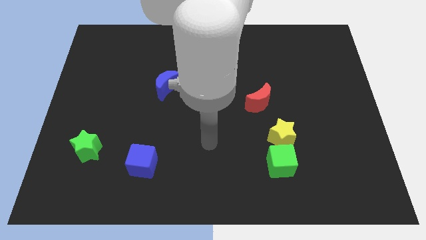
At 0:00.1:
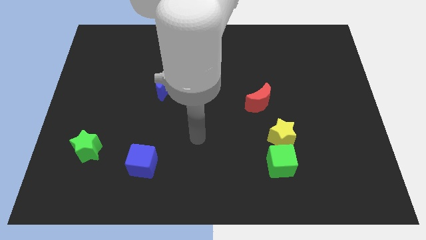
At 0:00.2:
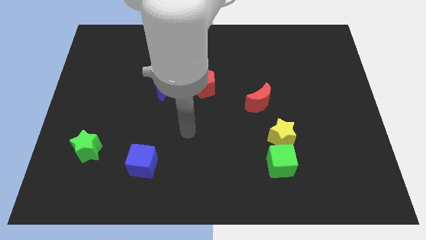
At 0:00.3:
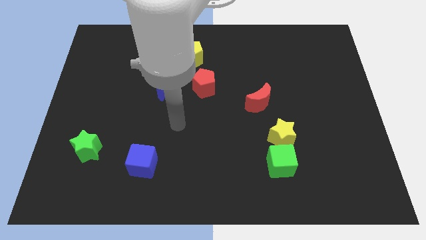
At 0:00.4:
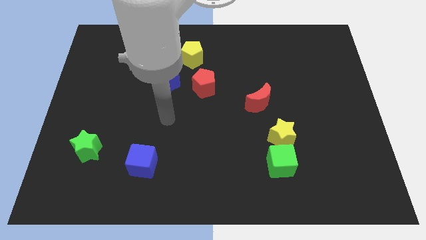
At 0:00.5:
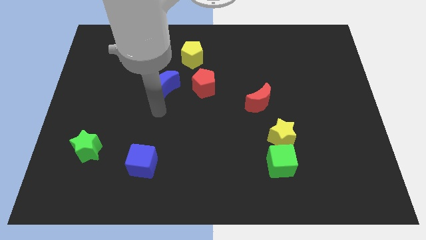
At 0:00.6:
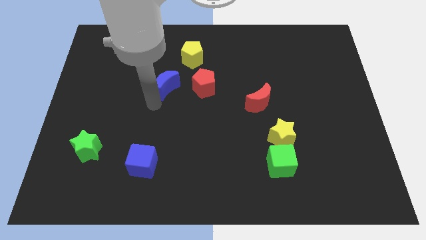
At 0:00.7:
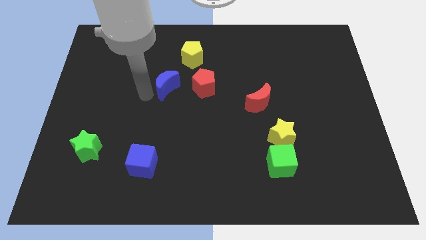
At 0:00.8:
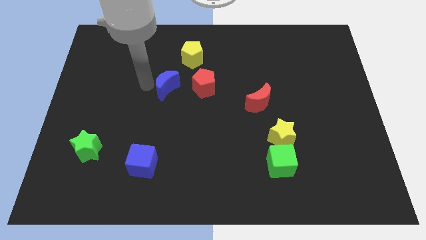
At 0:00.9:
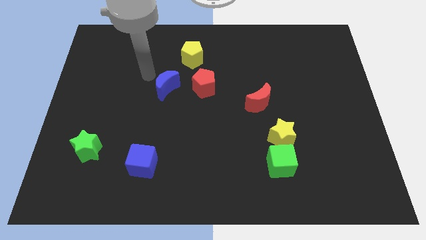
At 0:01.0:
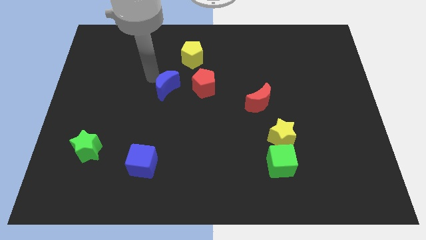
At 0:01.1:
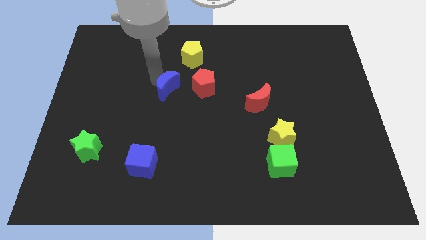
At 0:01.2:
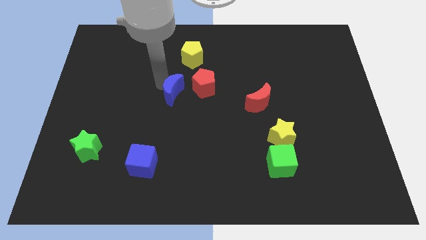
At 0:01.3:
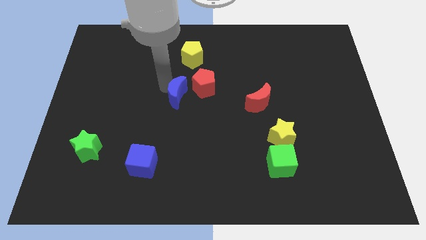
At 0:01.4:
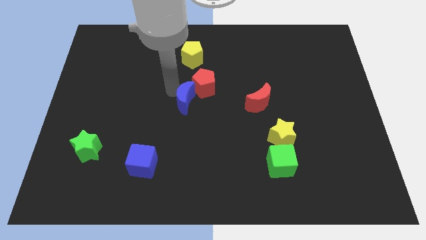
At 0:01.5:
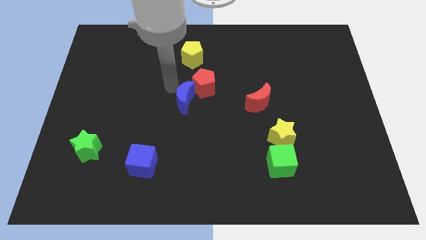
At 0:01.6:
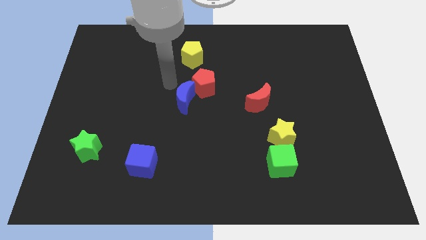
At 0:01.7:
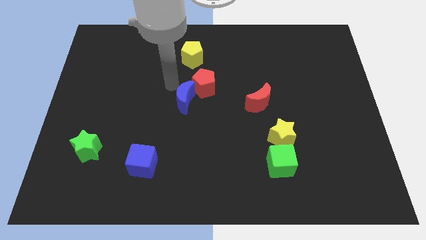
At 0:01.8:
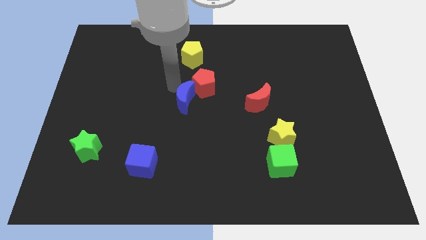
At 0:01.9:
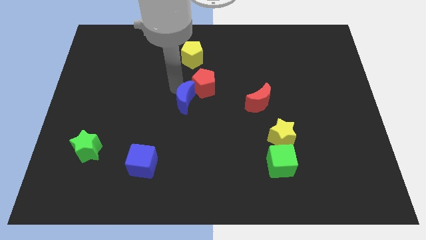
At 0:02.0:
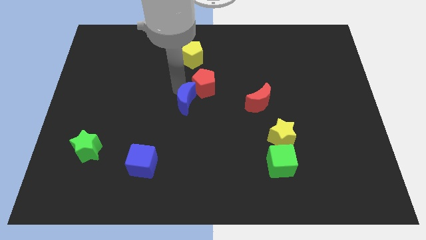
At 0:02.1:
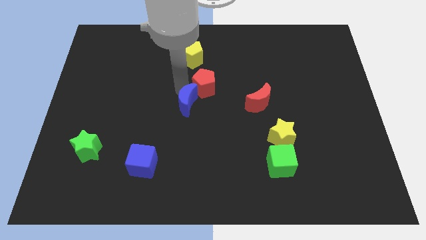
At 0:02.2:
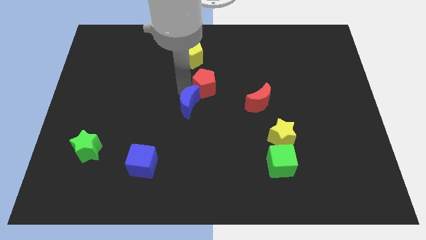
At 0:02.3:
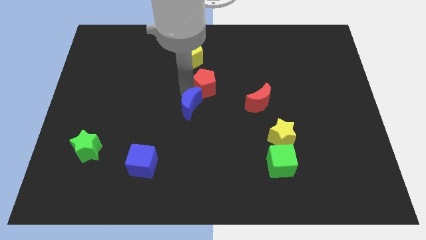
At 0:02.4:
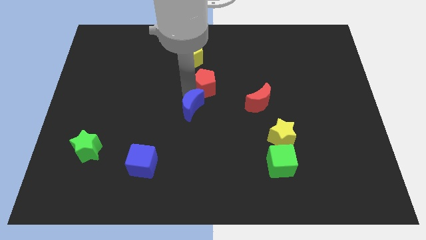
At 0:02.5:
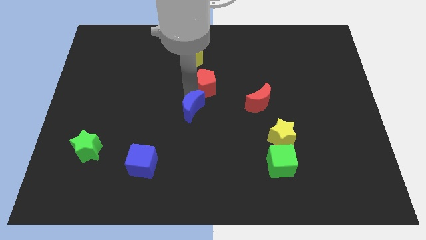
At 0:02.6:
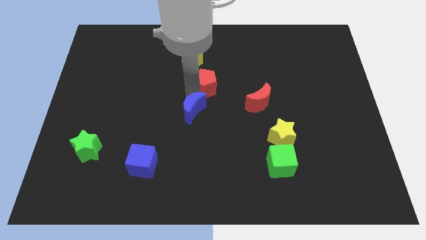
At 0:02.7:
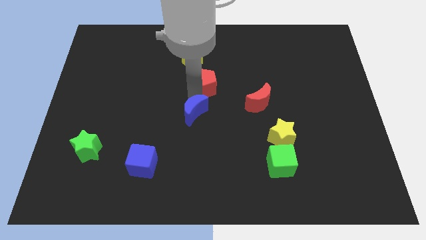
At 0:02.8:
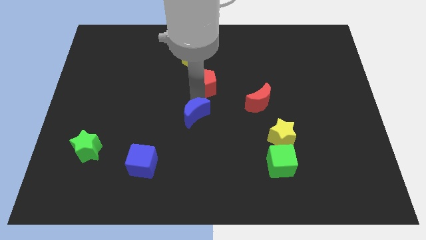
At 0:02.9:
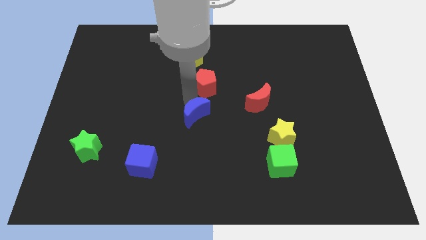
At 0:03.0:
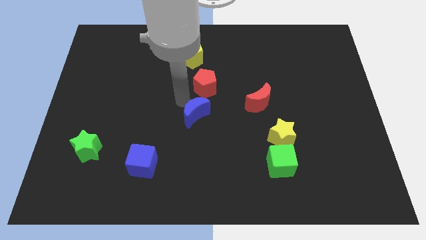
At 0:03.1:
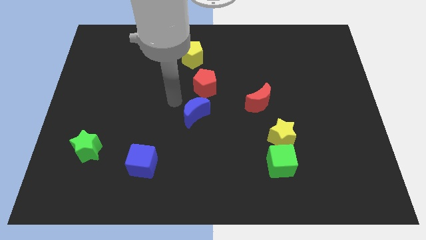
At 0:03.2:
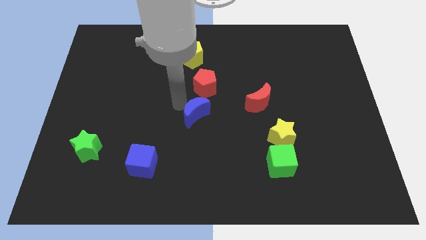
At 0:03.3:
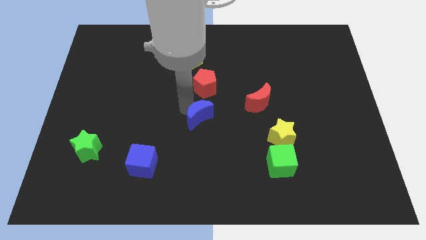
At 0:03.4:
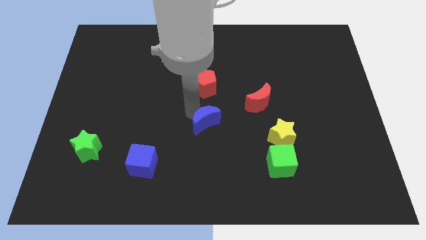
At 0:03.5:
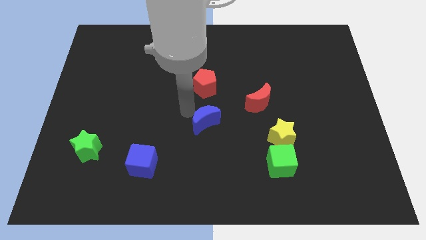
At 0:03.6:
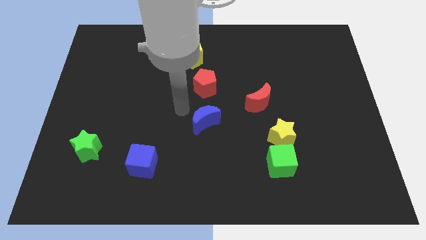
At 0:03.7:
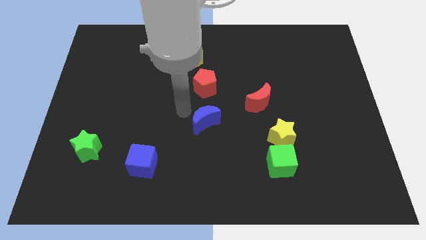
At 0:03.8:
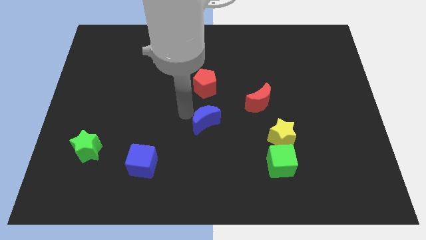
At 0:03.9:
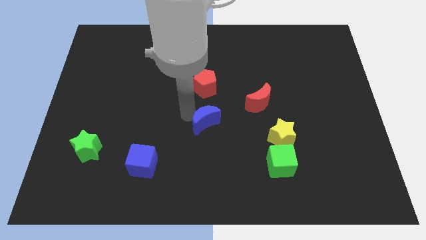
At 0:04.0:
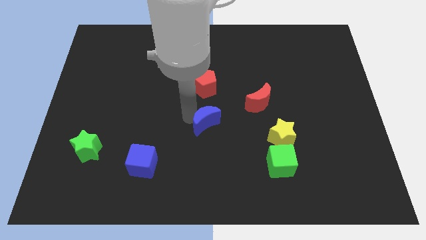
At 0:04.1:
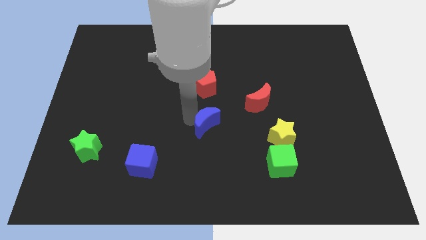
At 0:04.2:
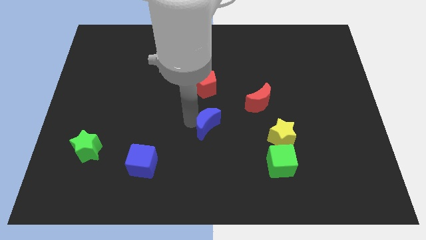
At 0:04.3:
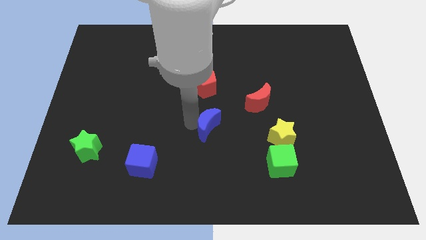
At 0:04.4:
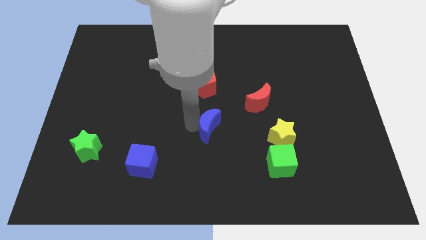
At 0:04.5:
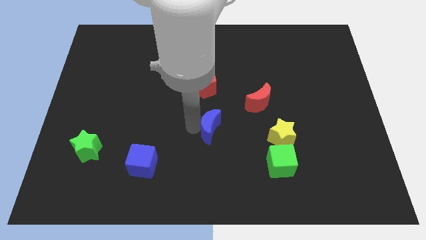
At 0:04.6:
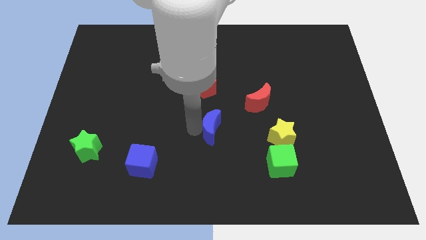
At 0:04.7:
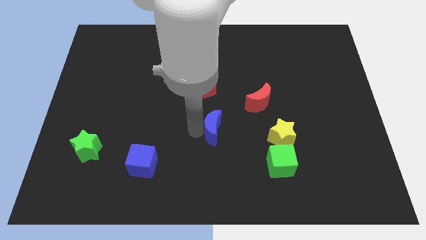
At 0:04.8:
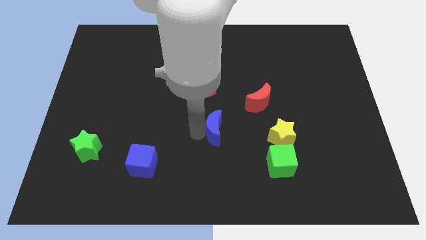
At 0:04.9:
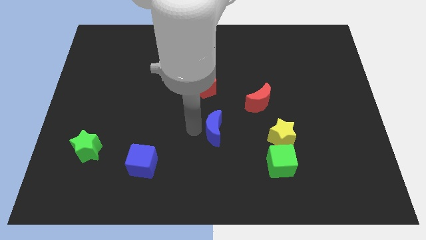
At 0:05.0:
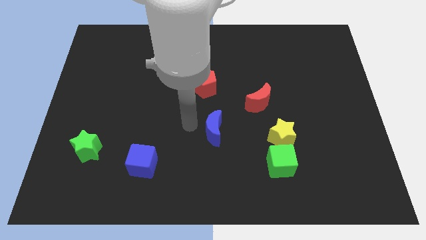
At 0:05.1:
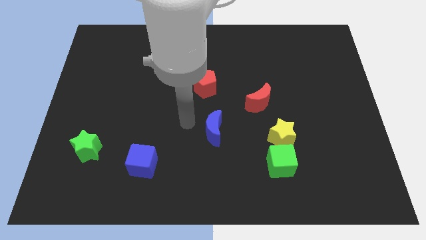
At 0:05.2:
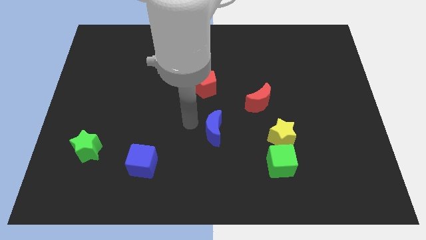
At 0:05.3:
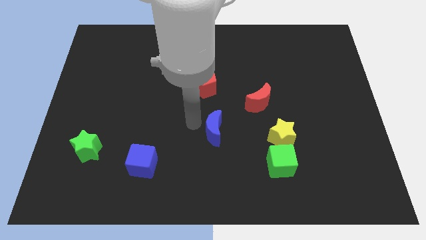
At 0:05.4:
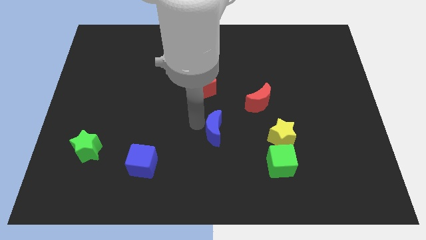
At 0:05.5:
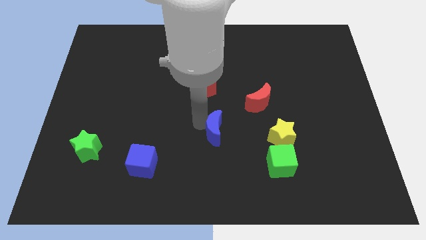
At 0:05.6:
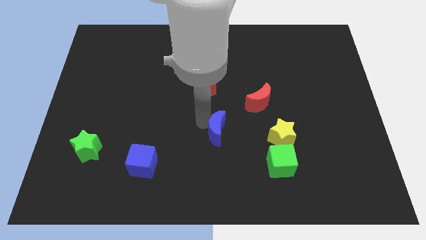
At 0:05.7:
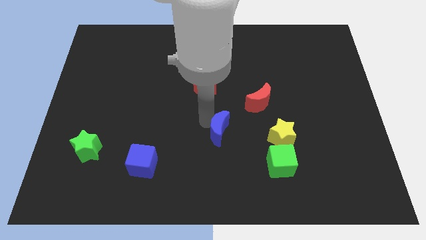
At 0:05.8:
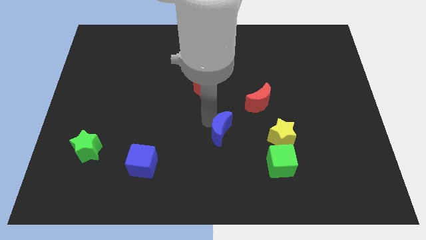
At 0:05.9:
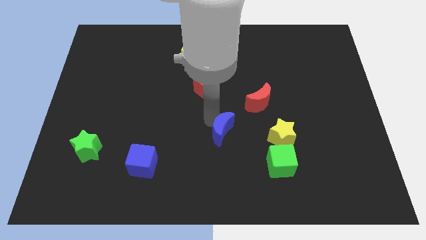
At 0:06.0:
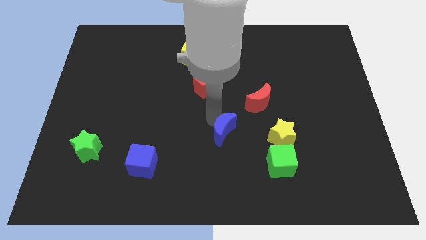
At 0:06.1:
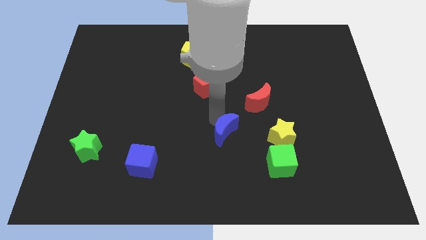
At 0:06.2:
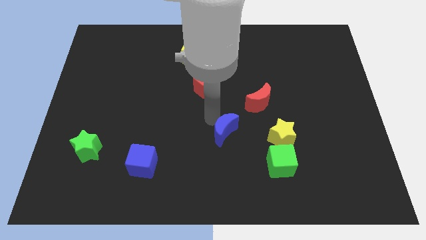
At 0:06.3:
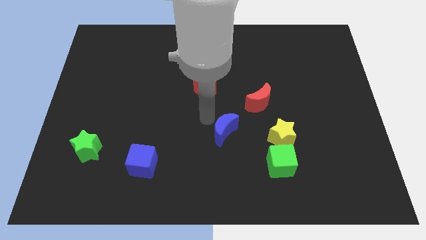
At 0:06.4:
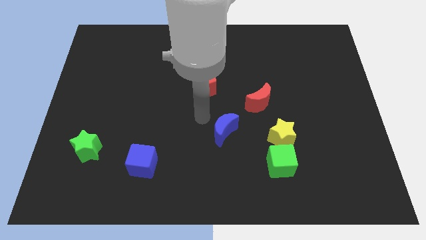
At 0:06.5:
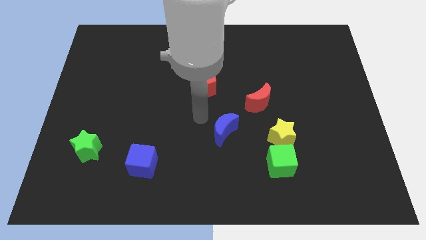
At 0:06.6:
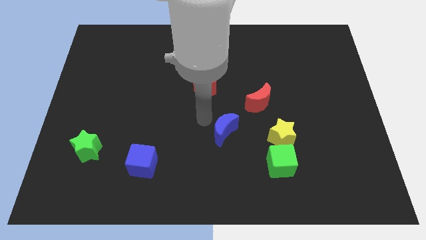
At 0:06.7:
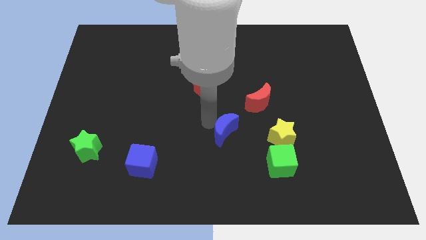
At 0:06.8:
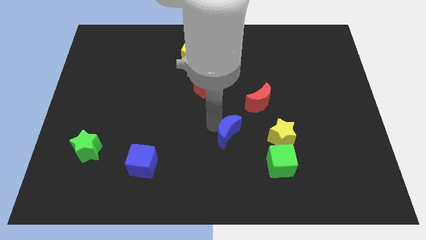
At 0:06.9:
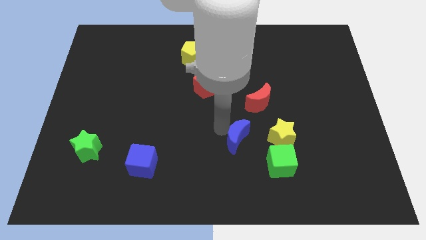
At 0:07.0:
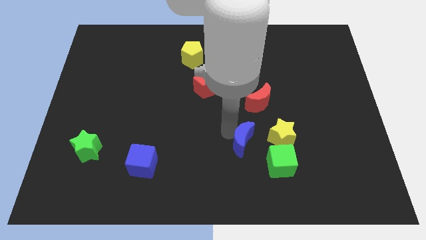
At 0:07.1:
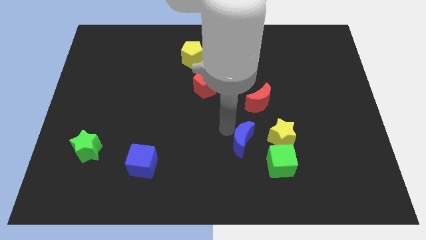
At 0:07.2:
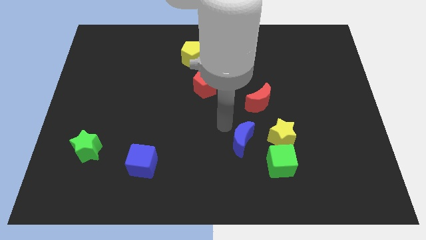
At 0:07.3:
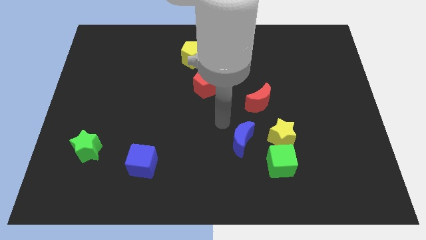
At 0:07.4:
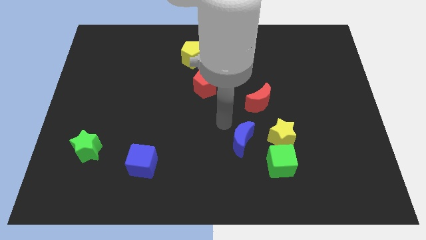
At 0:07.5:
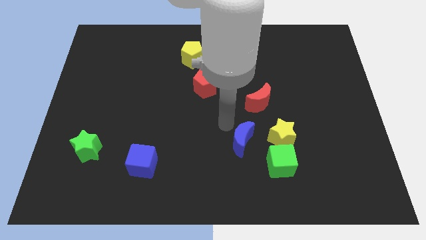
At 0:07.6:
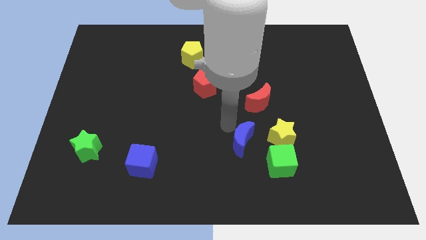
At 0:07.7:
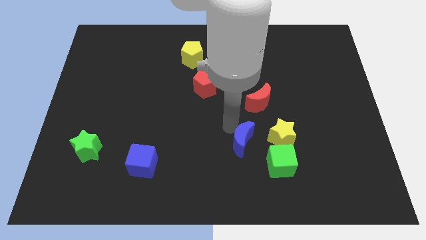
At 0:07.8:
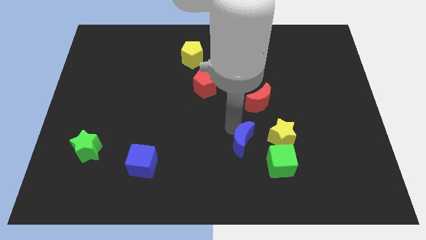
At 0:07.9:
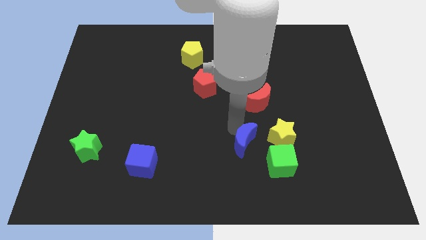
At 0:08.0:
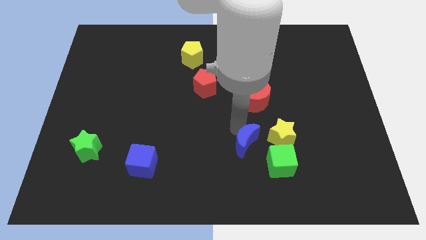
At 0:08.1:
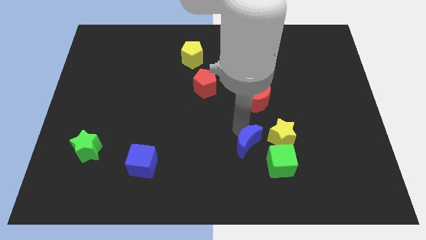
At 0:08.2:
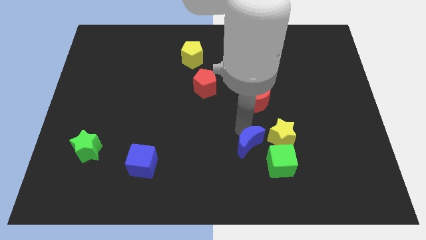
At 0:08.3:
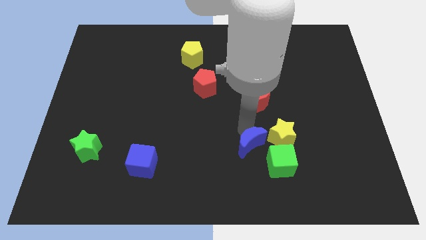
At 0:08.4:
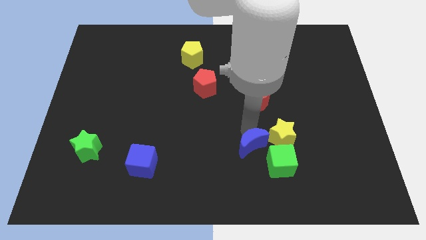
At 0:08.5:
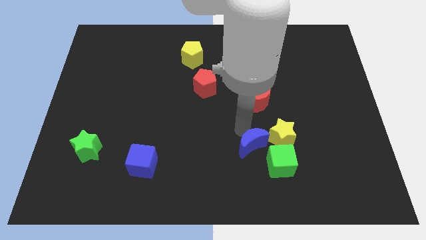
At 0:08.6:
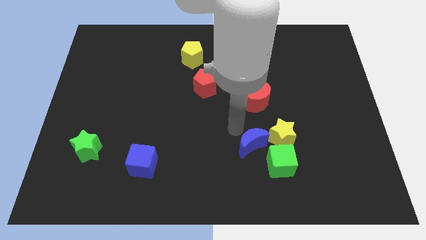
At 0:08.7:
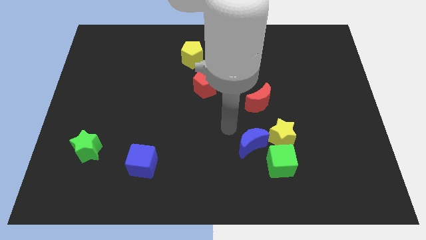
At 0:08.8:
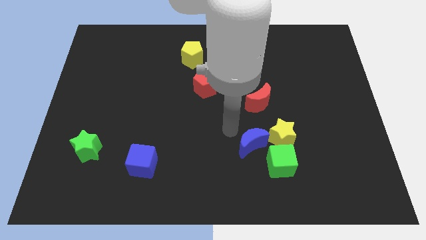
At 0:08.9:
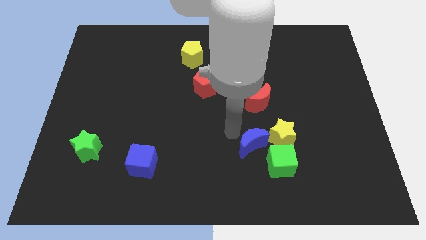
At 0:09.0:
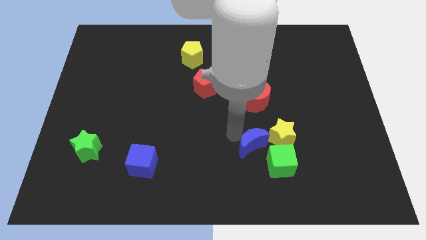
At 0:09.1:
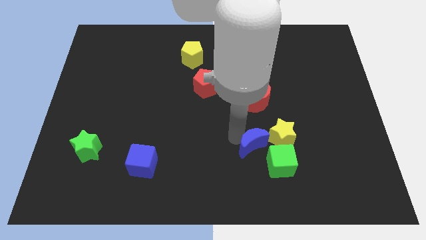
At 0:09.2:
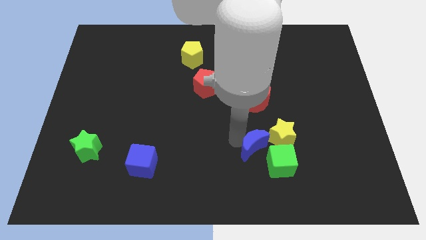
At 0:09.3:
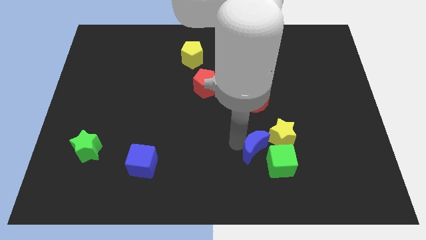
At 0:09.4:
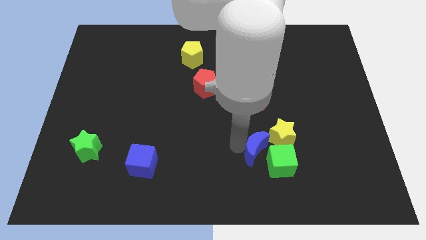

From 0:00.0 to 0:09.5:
push the blue moon next to the green cube
